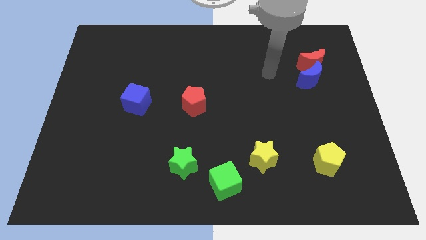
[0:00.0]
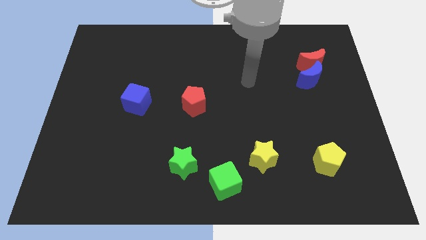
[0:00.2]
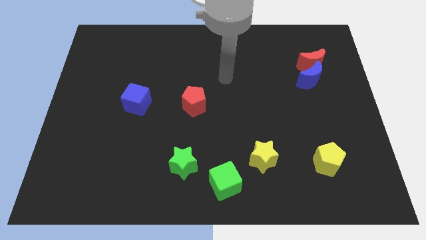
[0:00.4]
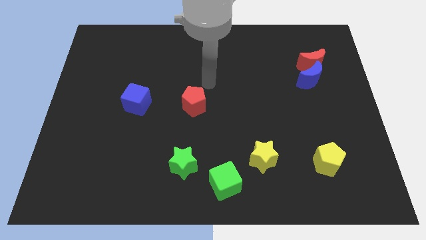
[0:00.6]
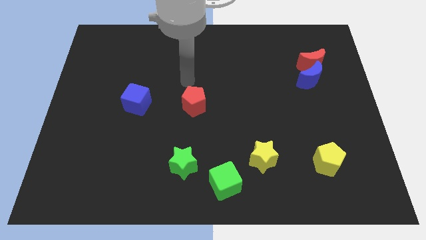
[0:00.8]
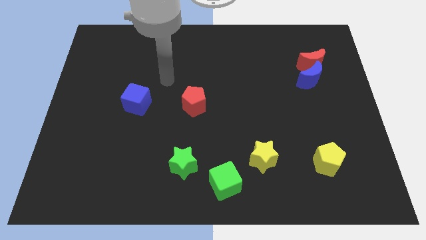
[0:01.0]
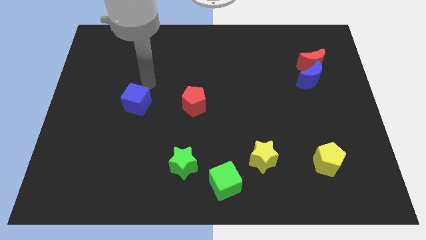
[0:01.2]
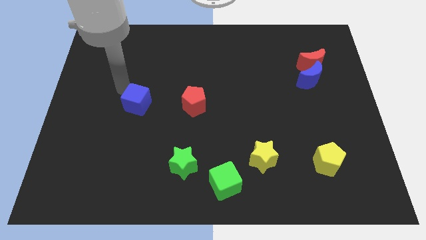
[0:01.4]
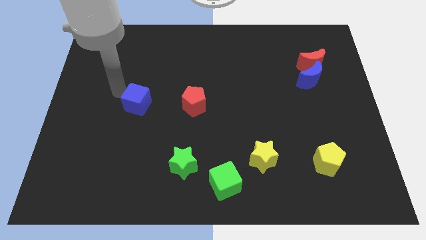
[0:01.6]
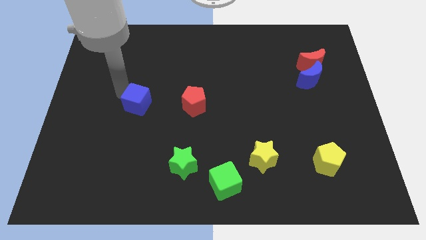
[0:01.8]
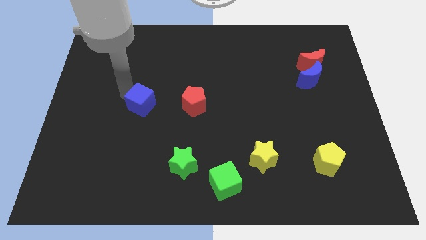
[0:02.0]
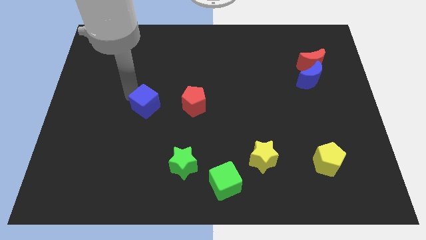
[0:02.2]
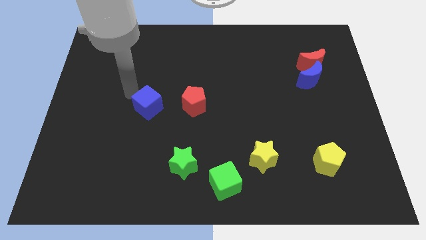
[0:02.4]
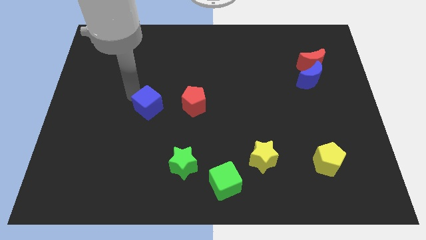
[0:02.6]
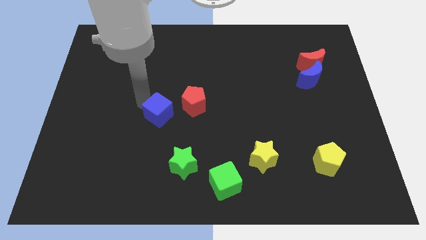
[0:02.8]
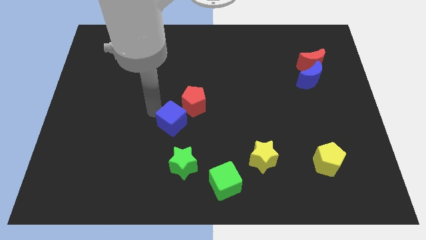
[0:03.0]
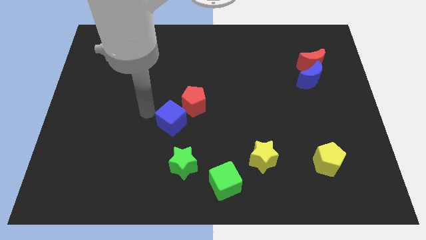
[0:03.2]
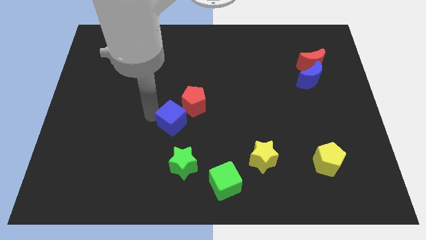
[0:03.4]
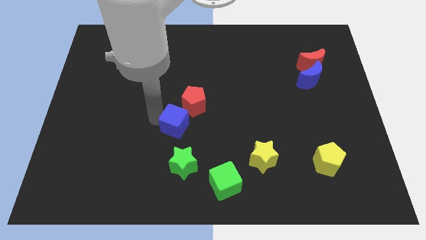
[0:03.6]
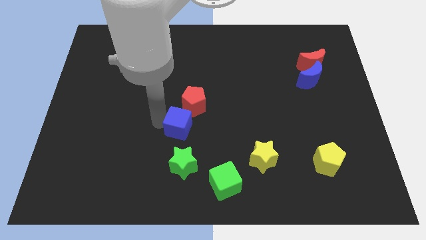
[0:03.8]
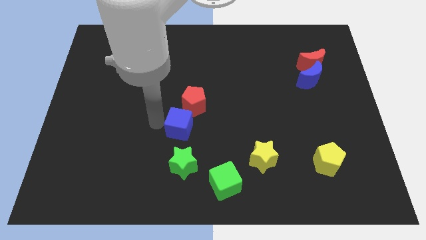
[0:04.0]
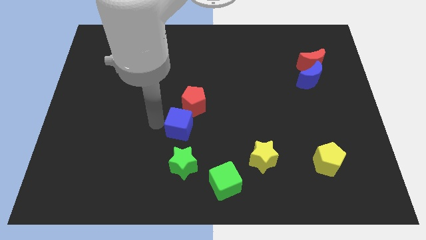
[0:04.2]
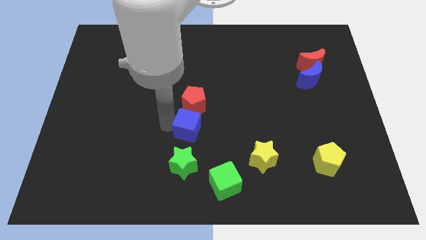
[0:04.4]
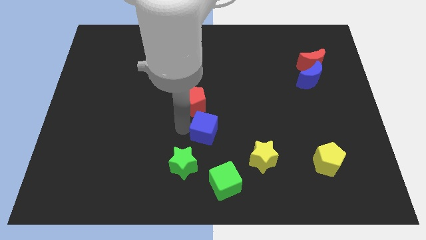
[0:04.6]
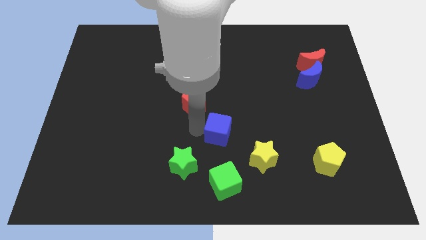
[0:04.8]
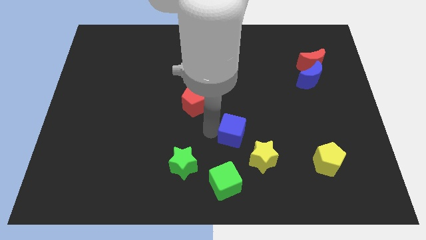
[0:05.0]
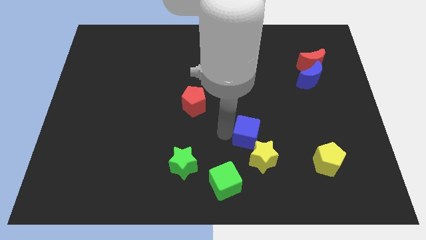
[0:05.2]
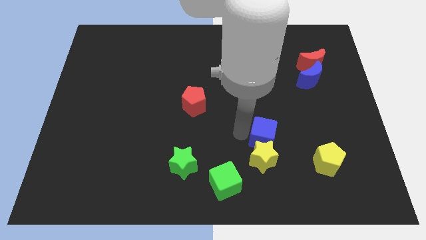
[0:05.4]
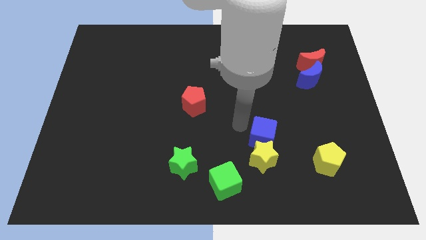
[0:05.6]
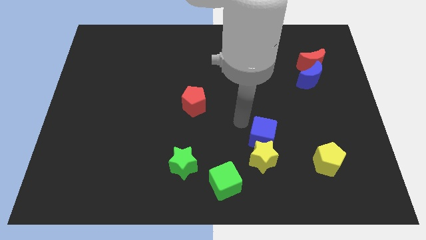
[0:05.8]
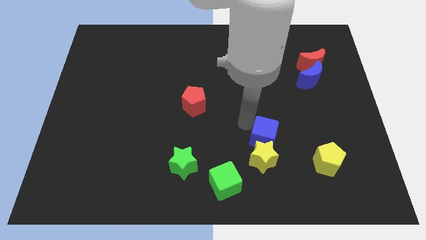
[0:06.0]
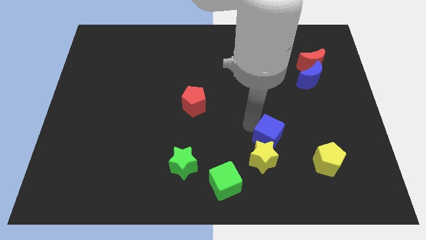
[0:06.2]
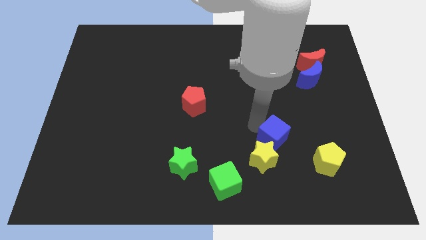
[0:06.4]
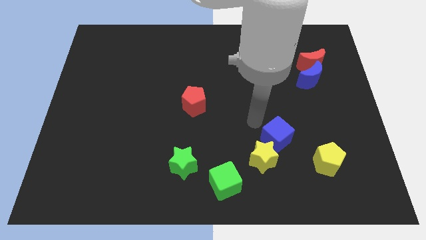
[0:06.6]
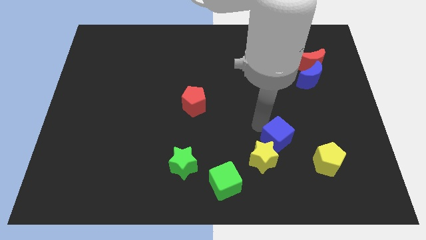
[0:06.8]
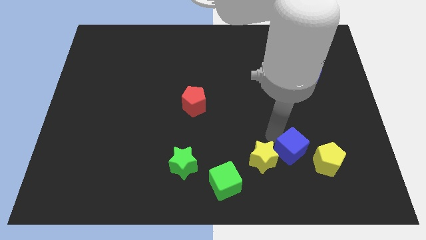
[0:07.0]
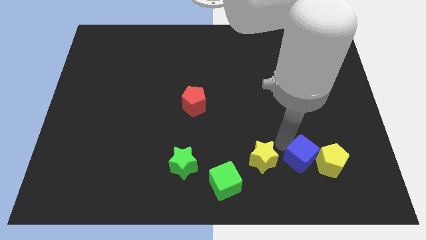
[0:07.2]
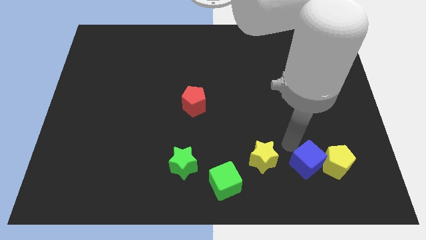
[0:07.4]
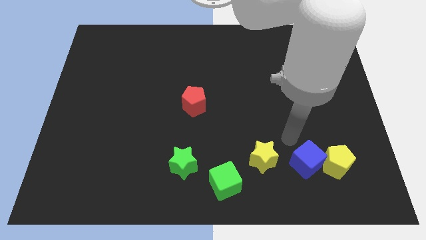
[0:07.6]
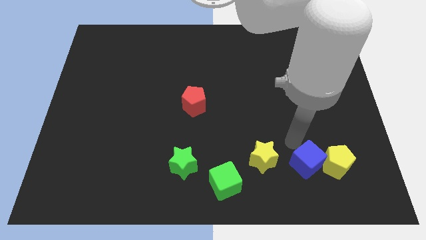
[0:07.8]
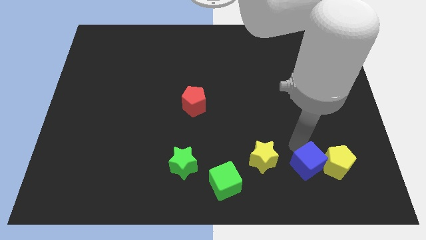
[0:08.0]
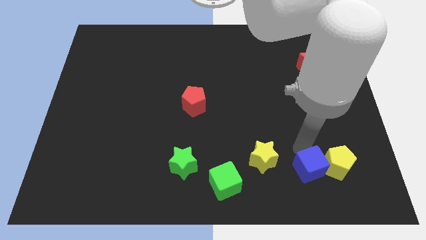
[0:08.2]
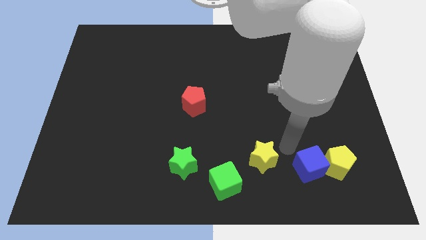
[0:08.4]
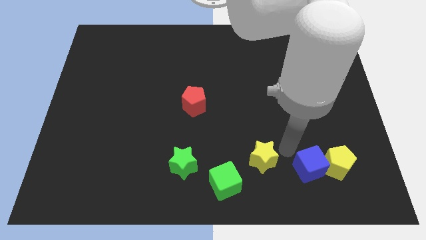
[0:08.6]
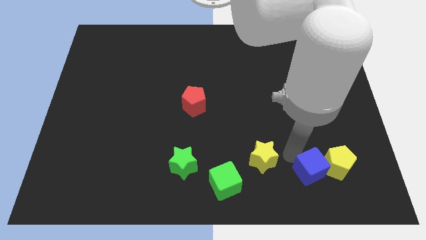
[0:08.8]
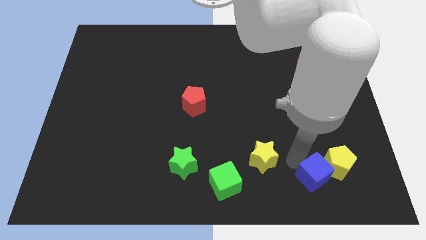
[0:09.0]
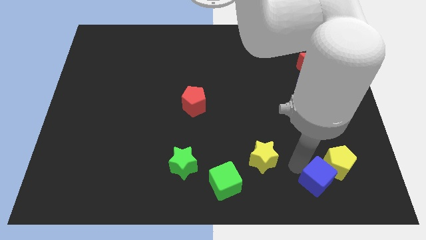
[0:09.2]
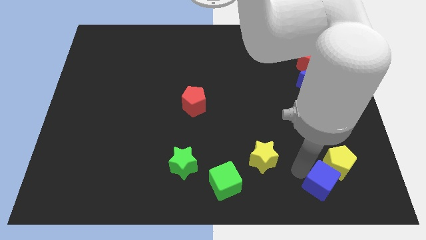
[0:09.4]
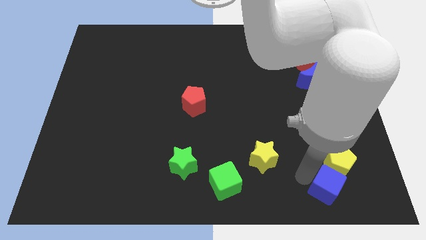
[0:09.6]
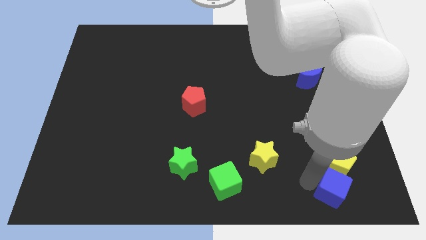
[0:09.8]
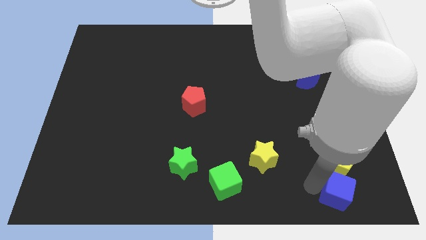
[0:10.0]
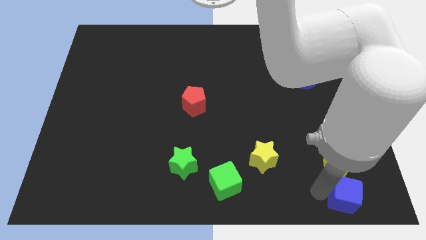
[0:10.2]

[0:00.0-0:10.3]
push the blue cube to the bottom right corner

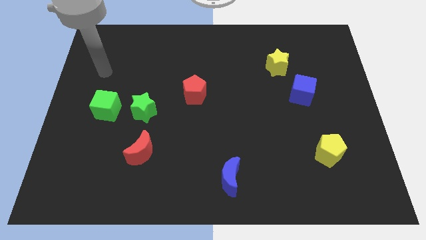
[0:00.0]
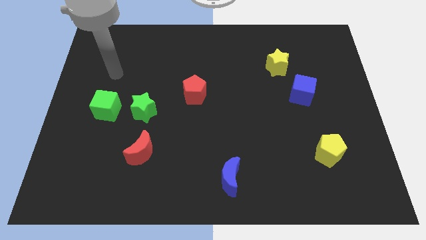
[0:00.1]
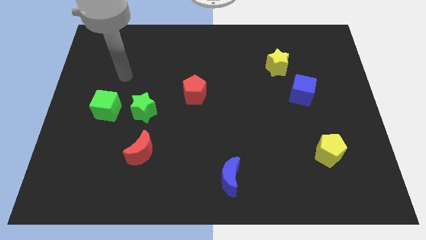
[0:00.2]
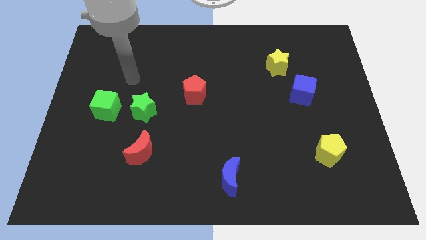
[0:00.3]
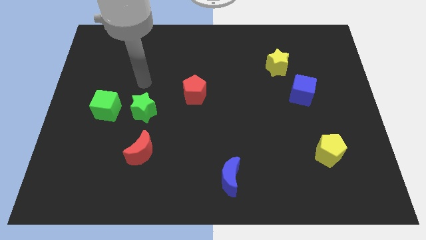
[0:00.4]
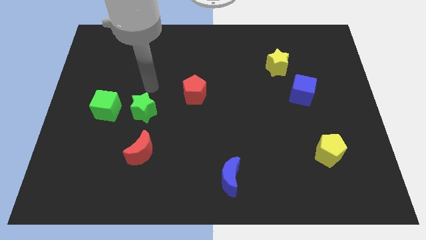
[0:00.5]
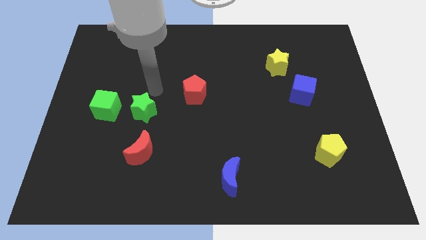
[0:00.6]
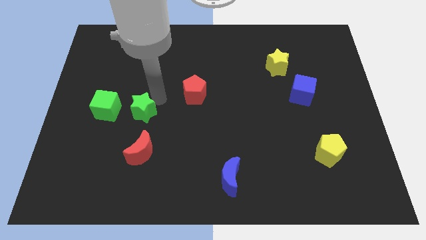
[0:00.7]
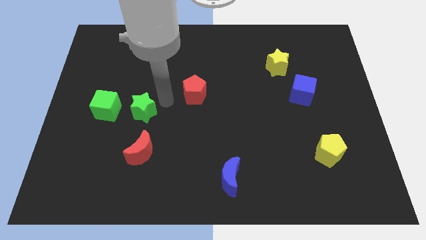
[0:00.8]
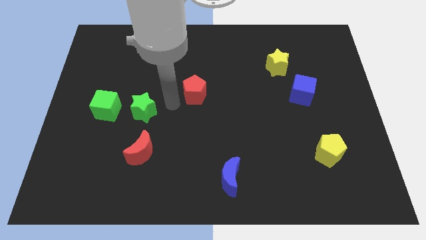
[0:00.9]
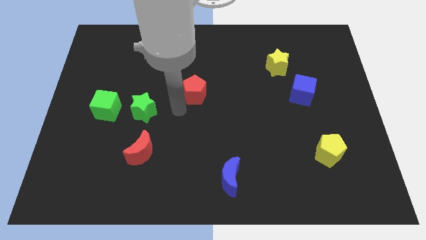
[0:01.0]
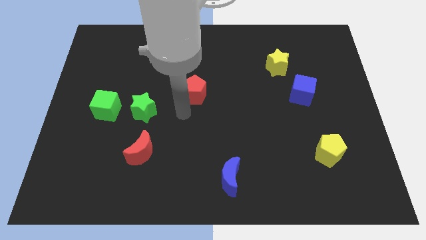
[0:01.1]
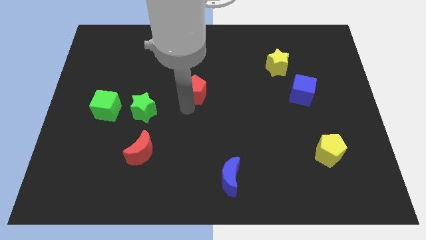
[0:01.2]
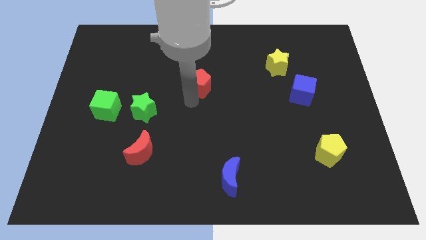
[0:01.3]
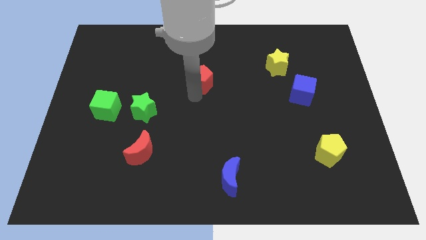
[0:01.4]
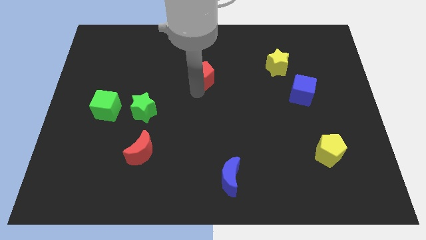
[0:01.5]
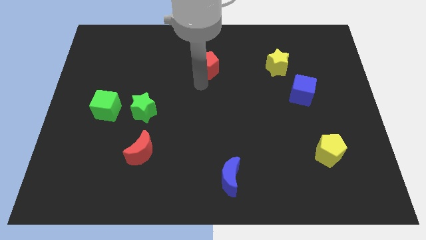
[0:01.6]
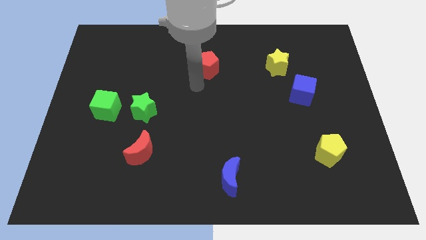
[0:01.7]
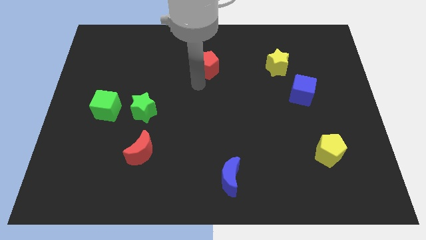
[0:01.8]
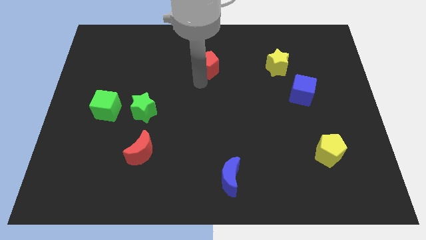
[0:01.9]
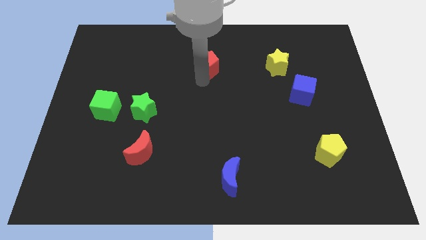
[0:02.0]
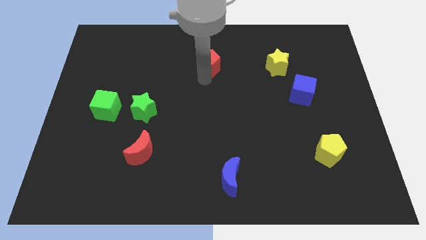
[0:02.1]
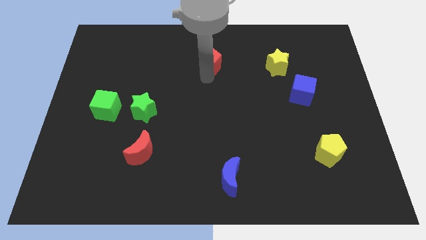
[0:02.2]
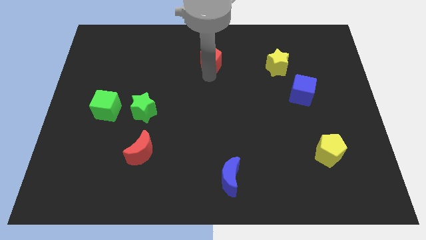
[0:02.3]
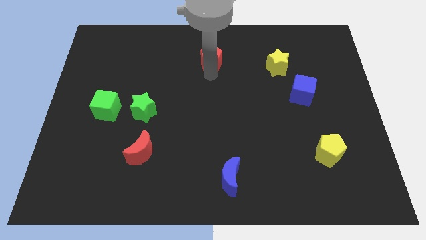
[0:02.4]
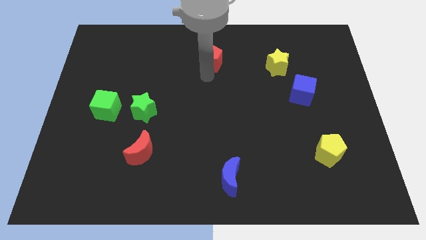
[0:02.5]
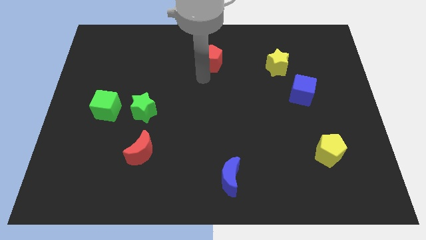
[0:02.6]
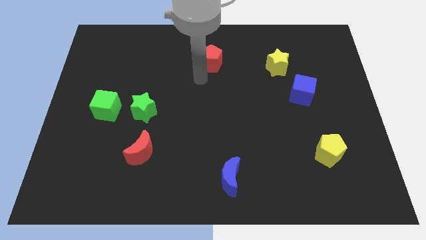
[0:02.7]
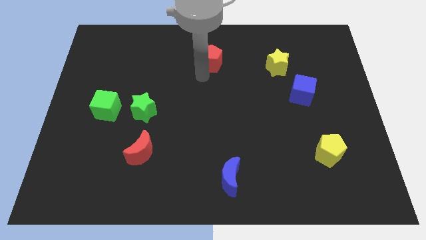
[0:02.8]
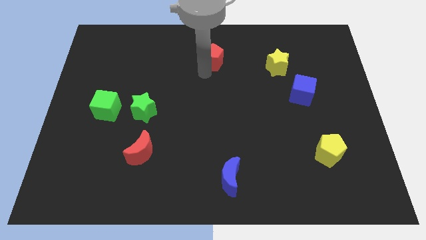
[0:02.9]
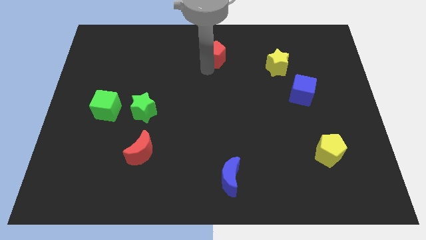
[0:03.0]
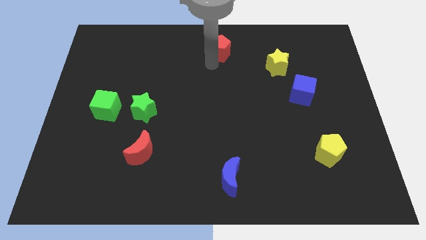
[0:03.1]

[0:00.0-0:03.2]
push the red pentagon to the top
